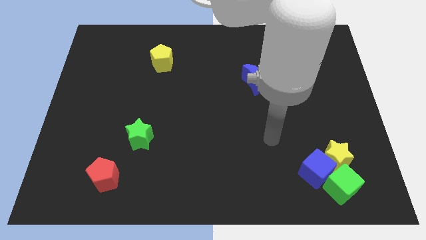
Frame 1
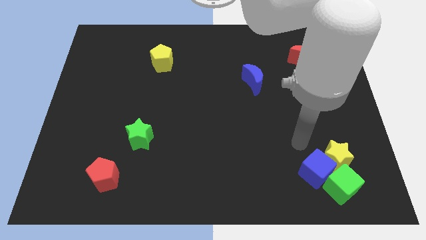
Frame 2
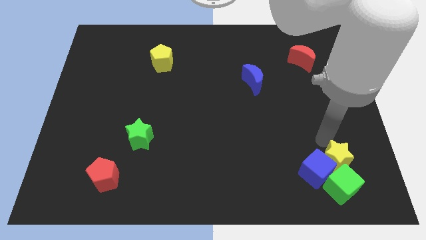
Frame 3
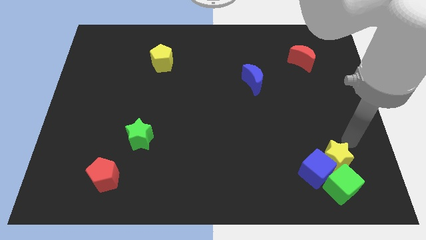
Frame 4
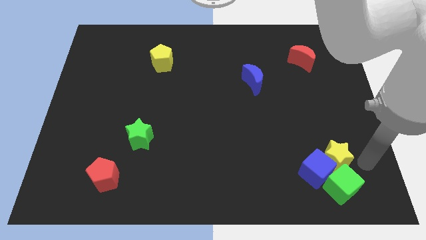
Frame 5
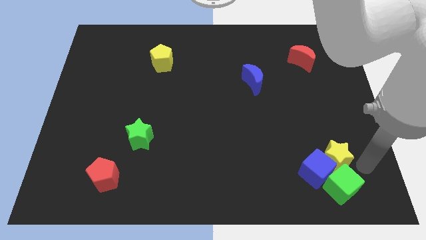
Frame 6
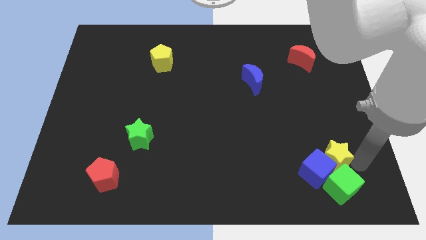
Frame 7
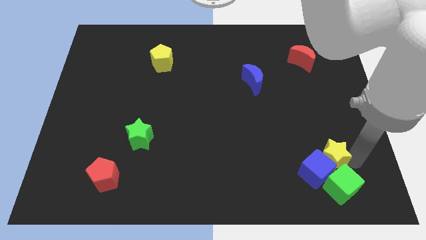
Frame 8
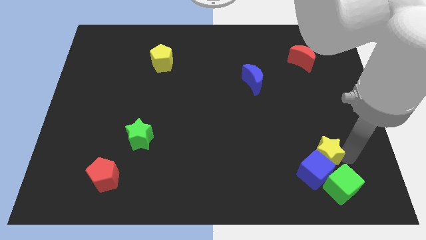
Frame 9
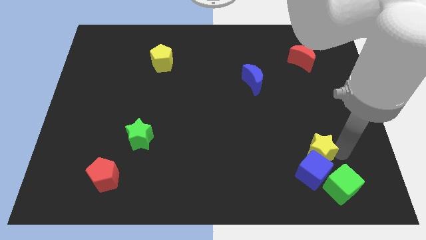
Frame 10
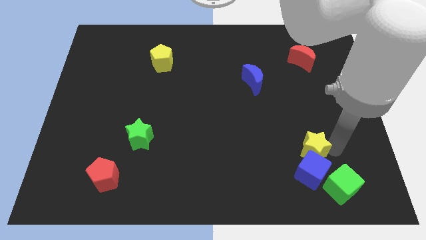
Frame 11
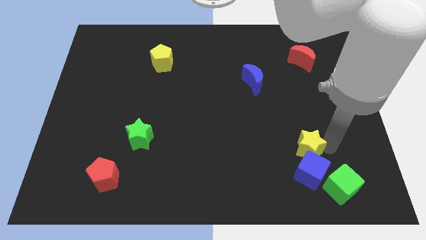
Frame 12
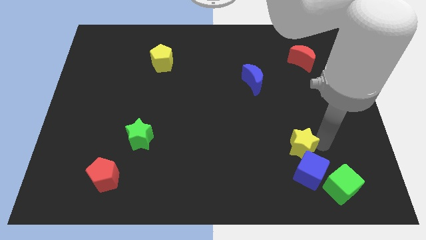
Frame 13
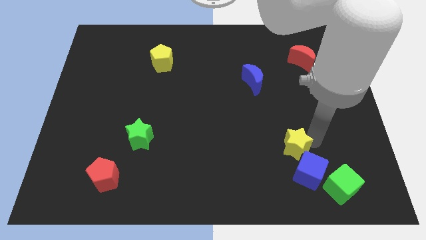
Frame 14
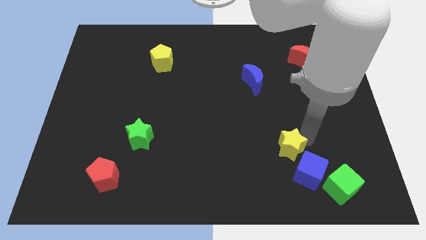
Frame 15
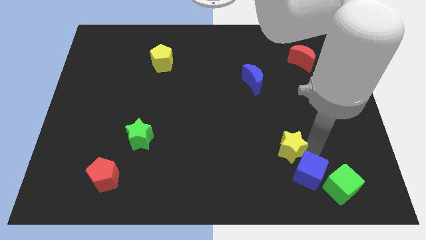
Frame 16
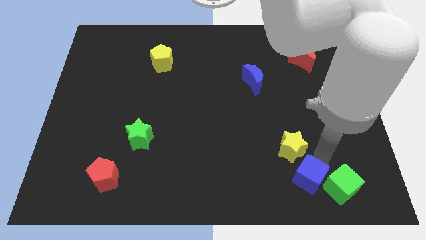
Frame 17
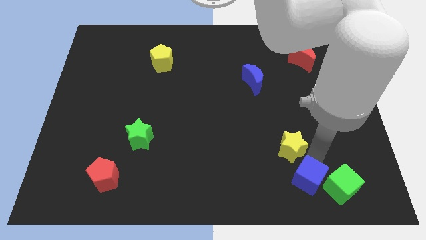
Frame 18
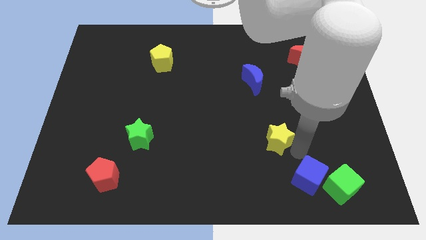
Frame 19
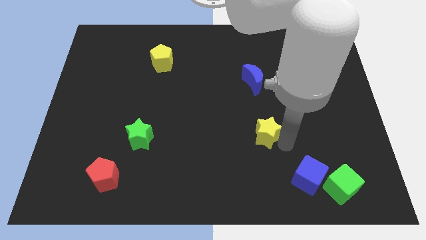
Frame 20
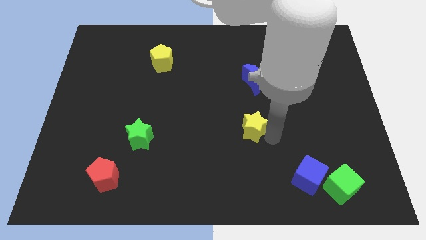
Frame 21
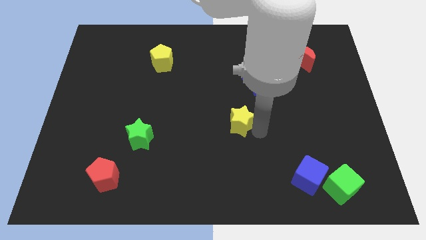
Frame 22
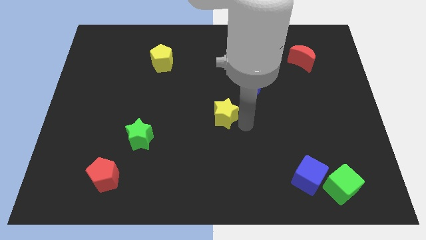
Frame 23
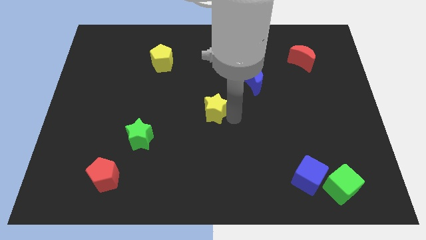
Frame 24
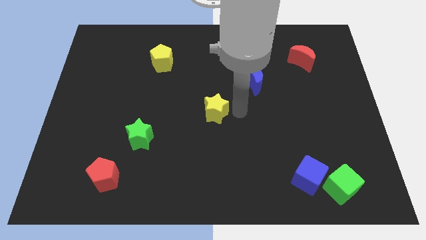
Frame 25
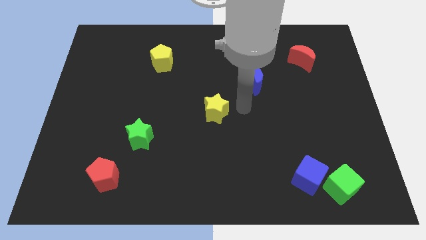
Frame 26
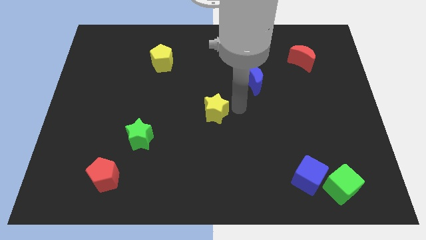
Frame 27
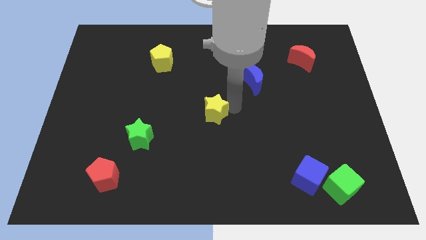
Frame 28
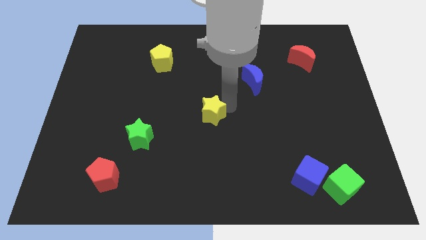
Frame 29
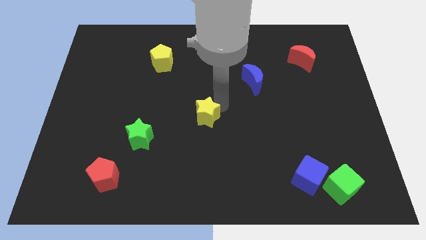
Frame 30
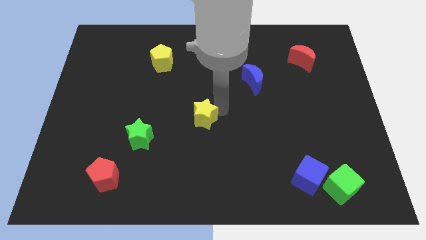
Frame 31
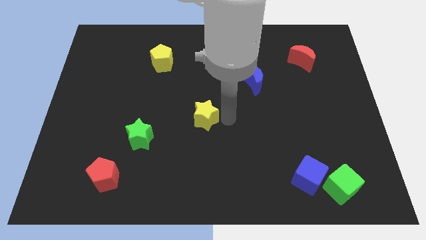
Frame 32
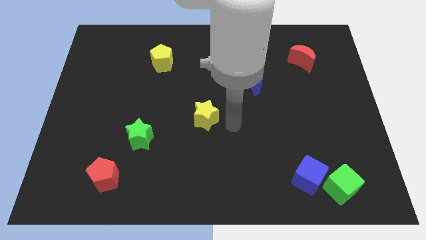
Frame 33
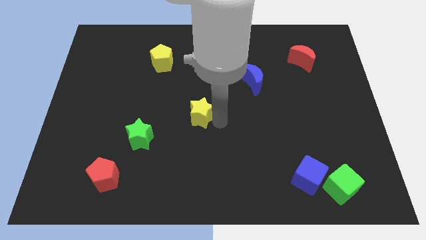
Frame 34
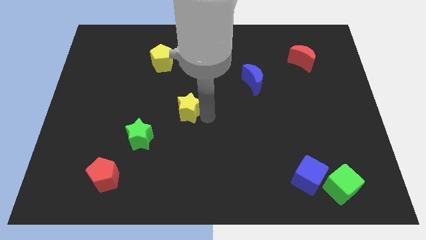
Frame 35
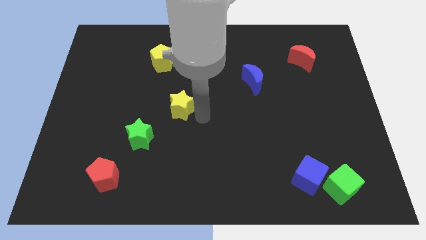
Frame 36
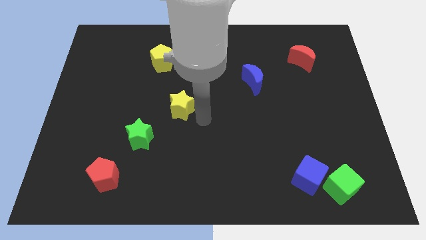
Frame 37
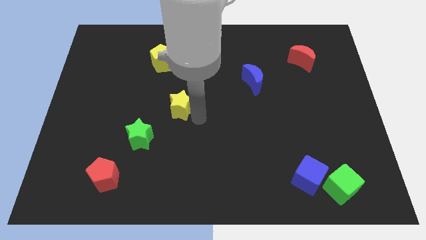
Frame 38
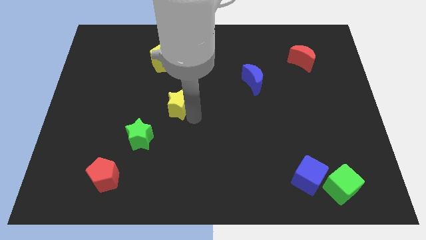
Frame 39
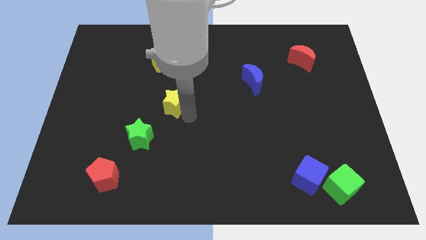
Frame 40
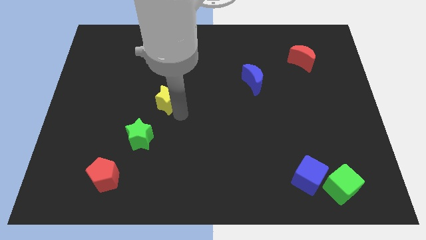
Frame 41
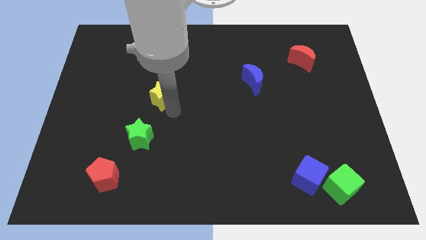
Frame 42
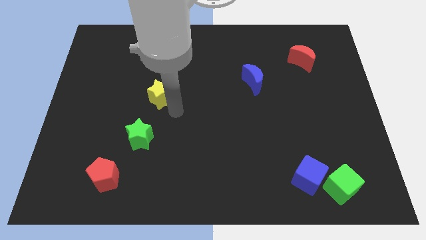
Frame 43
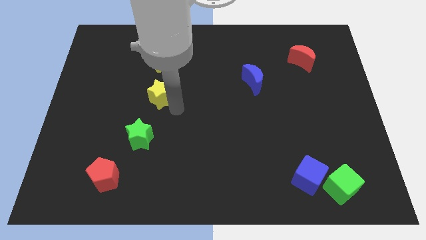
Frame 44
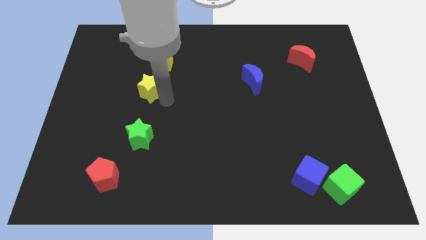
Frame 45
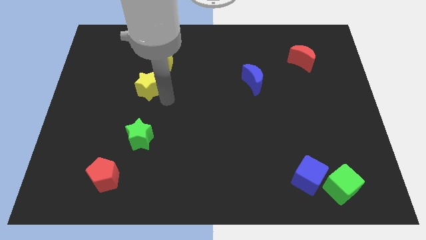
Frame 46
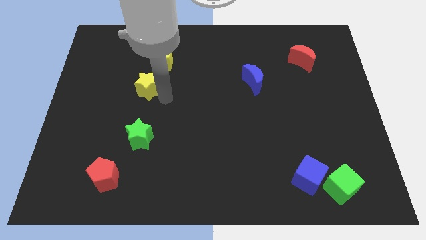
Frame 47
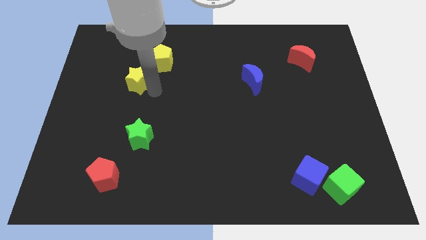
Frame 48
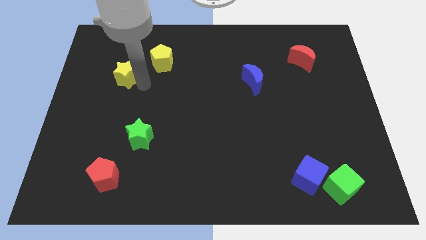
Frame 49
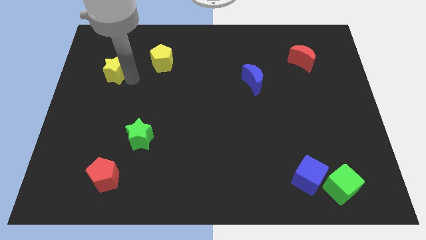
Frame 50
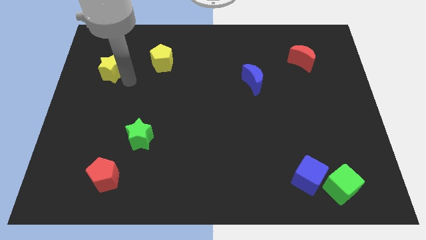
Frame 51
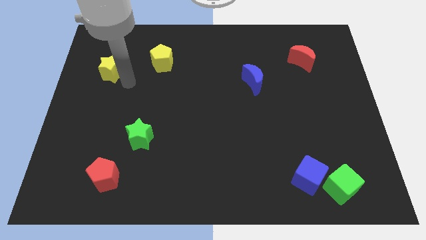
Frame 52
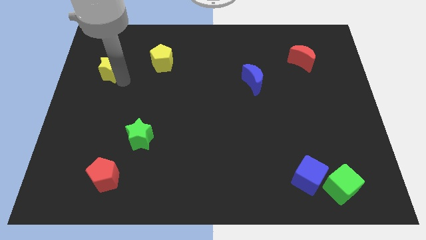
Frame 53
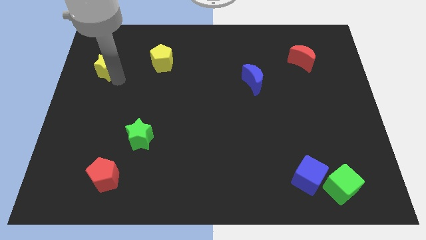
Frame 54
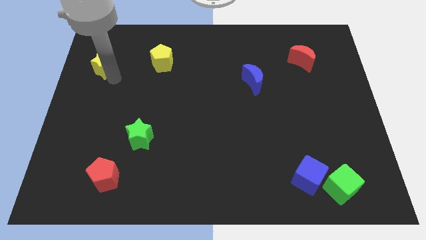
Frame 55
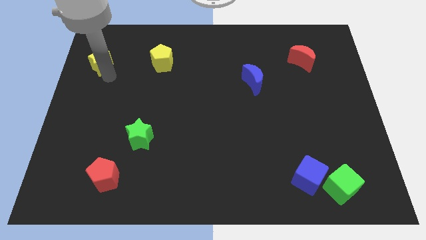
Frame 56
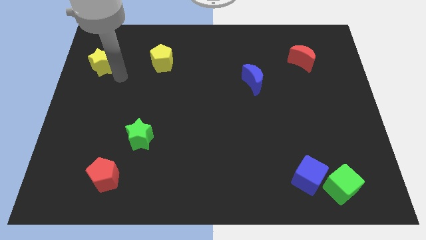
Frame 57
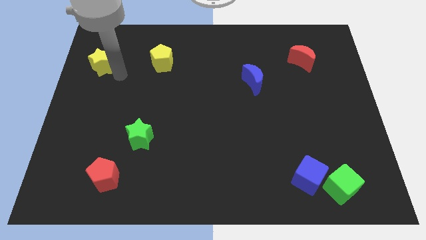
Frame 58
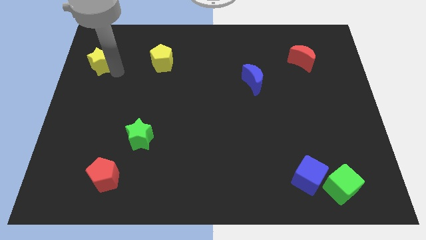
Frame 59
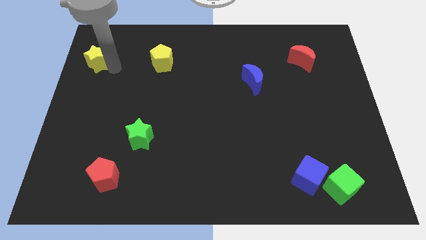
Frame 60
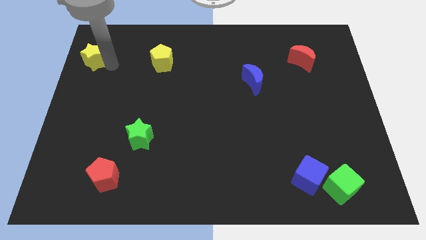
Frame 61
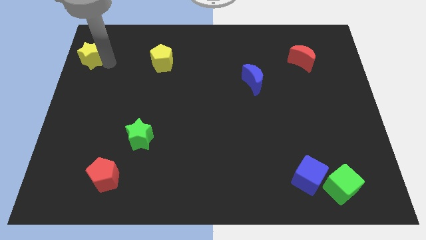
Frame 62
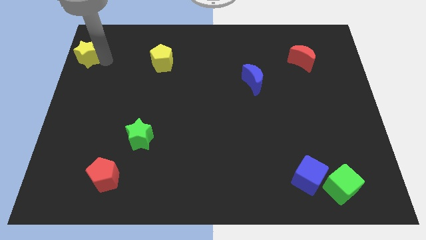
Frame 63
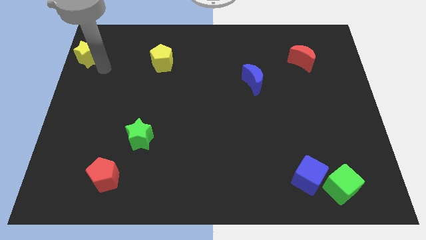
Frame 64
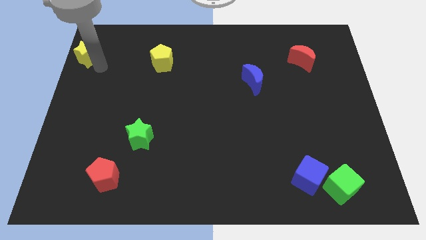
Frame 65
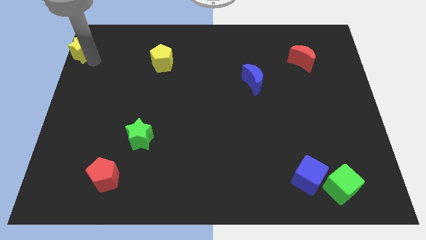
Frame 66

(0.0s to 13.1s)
move the yellow star to the top left corner

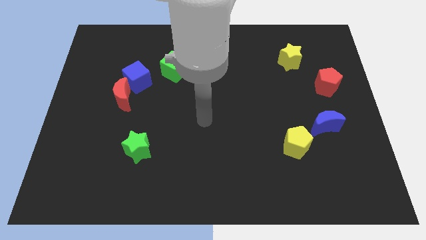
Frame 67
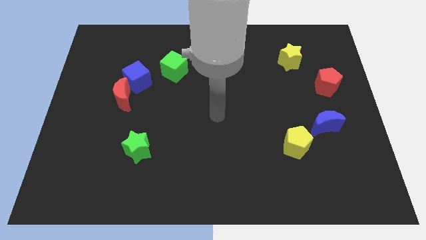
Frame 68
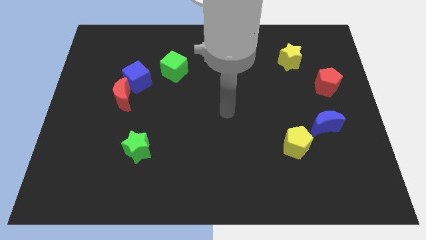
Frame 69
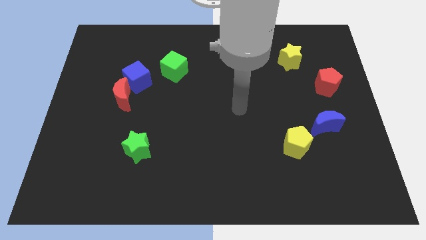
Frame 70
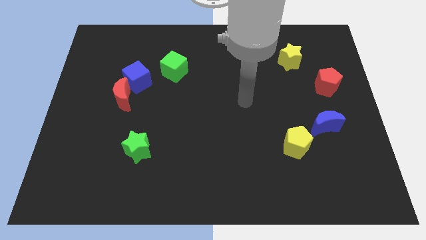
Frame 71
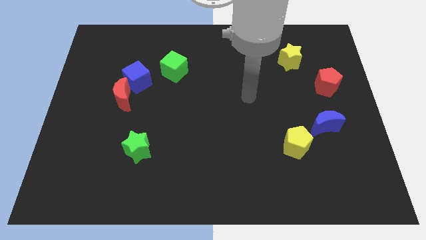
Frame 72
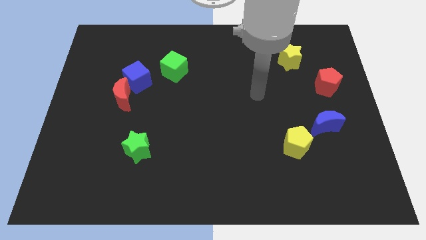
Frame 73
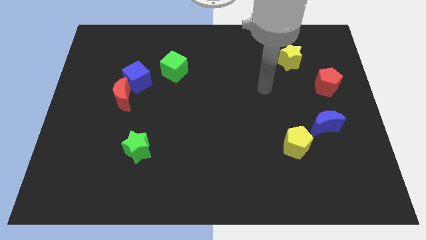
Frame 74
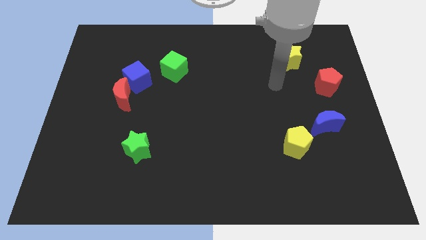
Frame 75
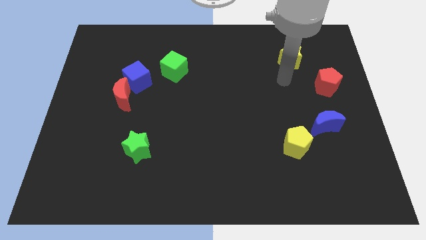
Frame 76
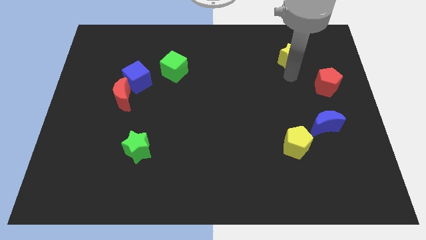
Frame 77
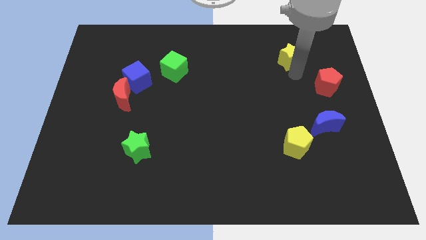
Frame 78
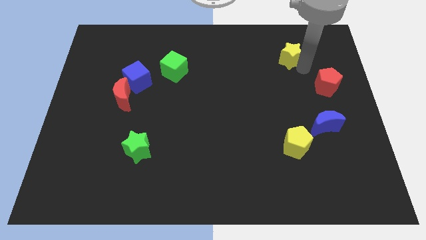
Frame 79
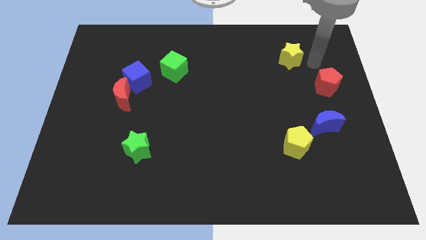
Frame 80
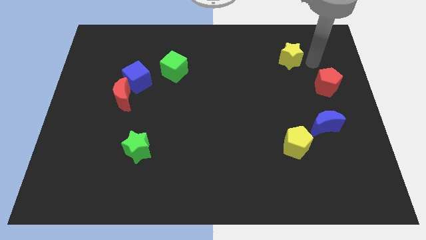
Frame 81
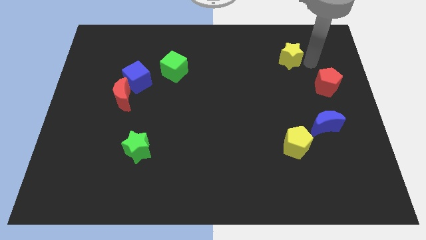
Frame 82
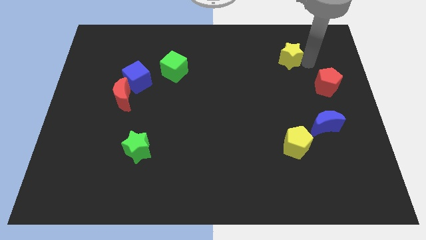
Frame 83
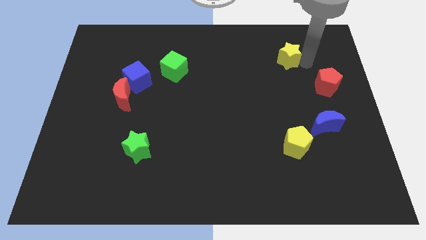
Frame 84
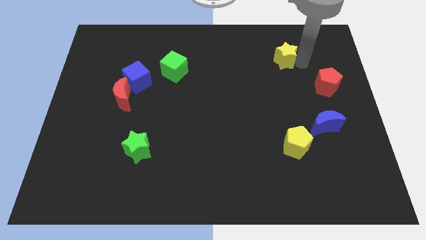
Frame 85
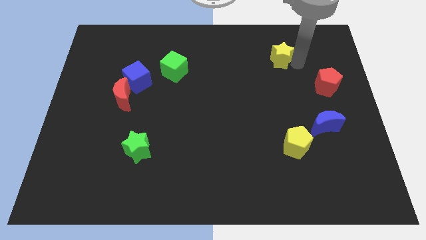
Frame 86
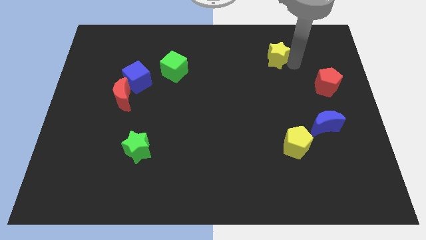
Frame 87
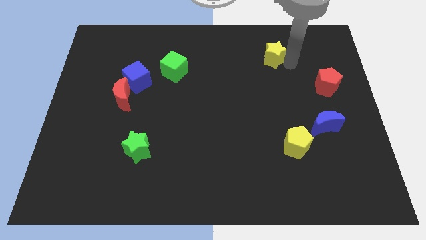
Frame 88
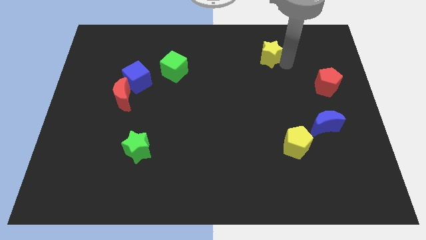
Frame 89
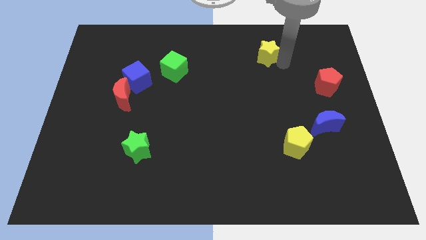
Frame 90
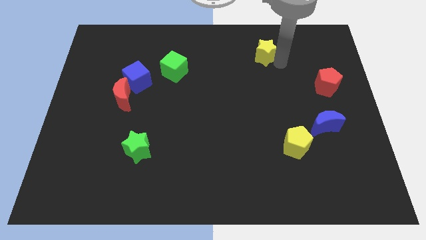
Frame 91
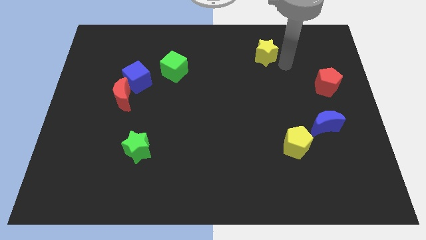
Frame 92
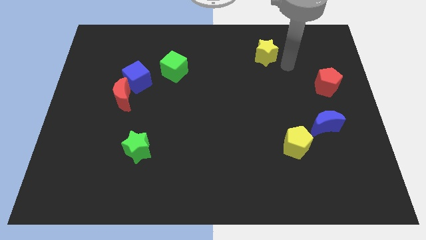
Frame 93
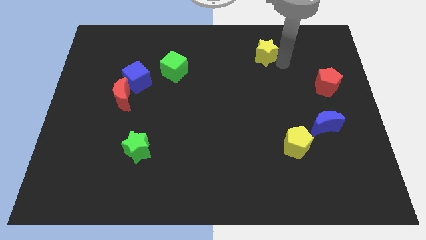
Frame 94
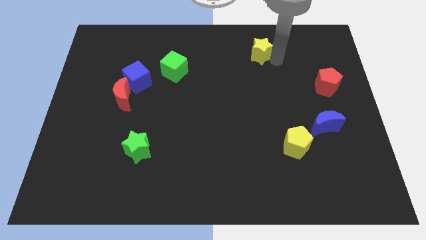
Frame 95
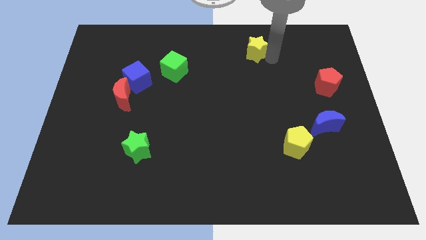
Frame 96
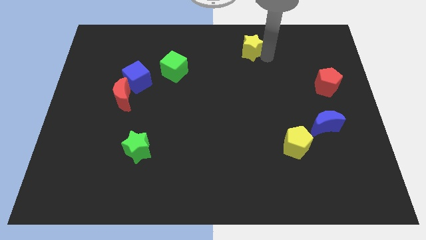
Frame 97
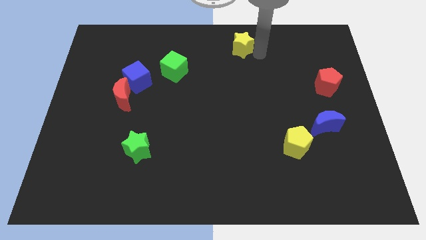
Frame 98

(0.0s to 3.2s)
push the yellow star to the top
